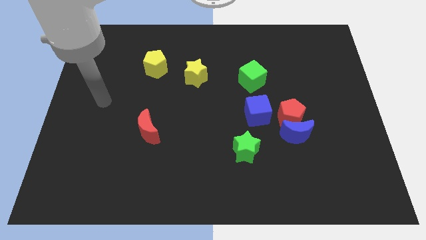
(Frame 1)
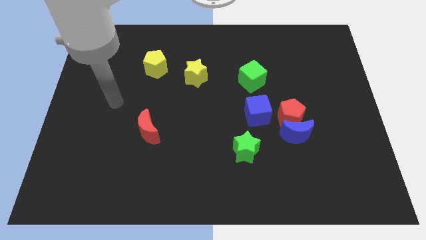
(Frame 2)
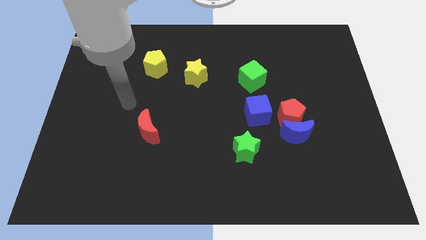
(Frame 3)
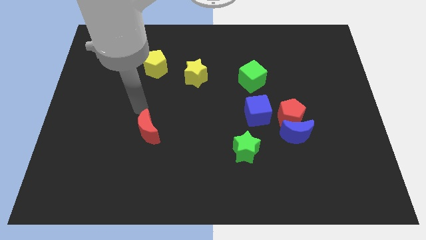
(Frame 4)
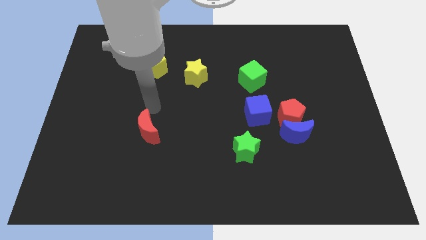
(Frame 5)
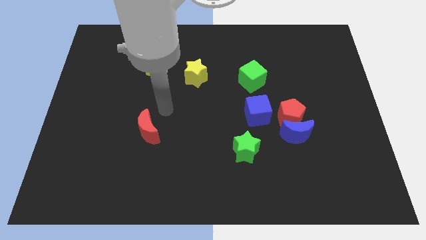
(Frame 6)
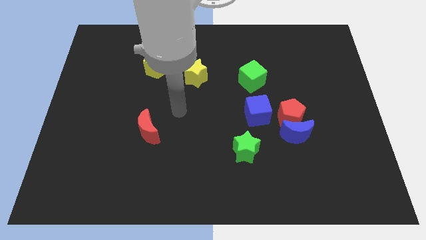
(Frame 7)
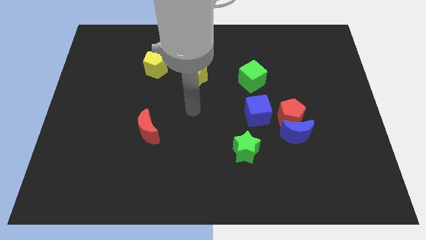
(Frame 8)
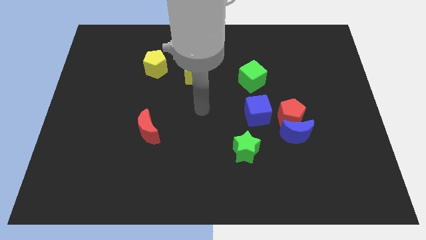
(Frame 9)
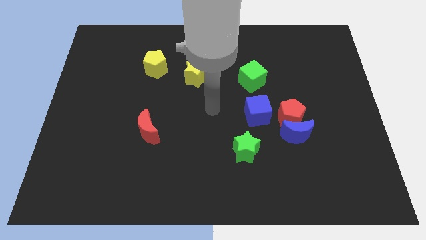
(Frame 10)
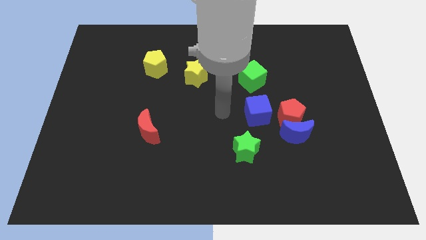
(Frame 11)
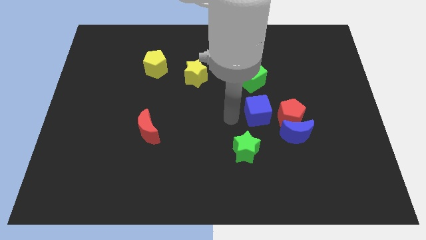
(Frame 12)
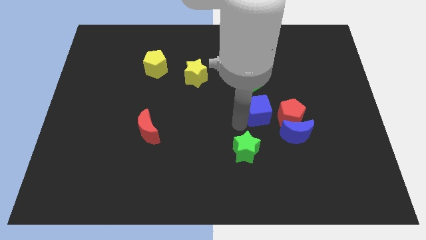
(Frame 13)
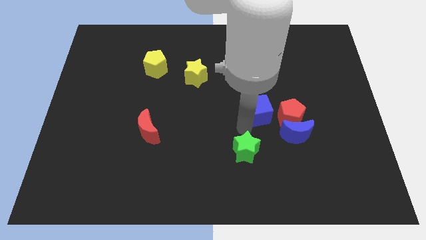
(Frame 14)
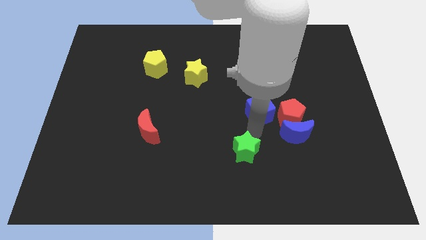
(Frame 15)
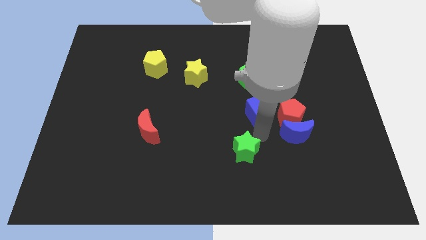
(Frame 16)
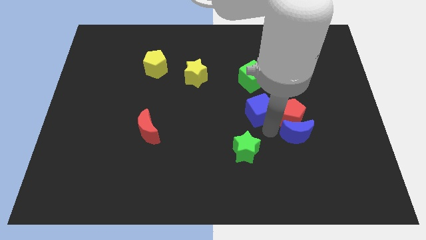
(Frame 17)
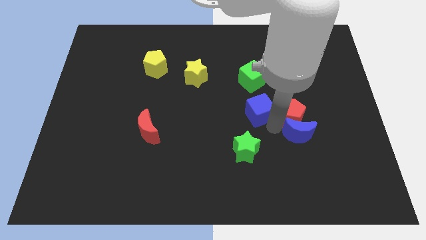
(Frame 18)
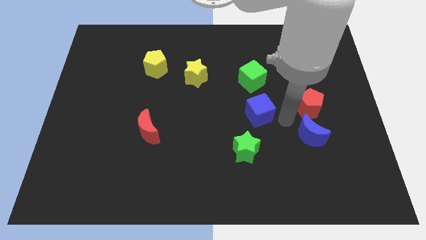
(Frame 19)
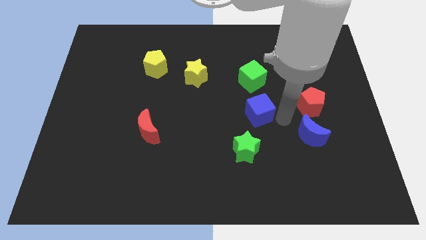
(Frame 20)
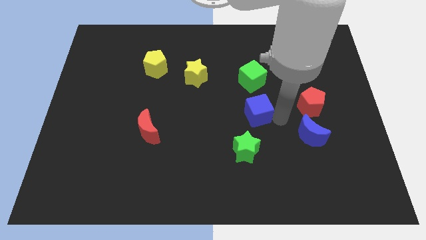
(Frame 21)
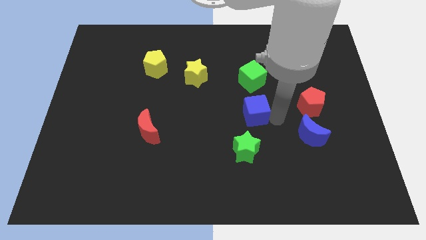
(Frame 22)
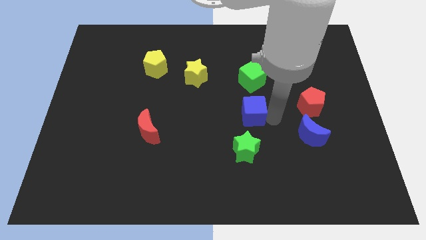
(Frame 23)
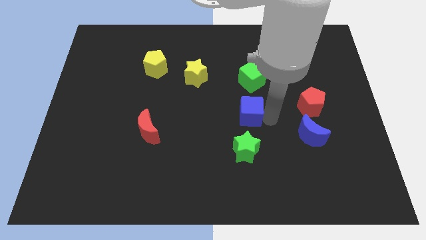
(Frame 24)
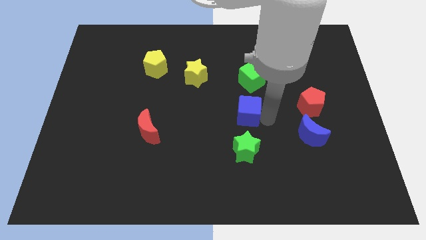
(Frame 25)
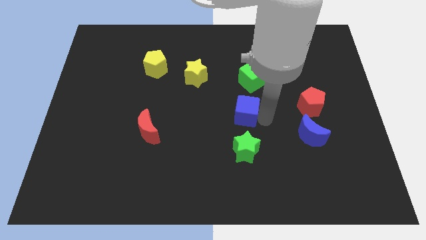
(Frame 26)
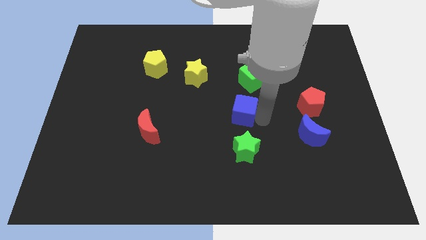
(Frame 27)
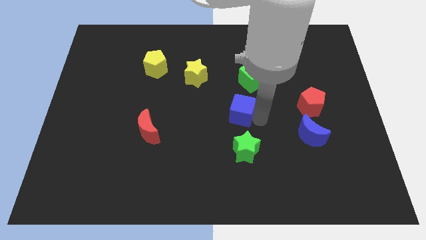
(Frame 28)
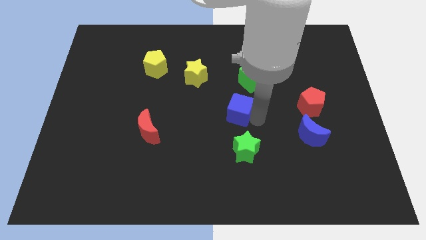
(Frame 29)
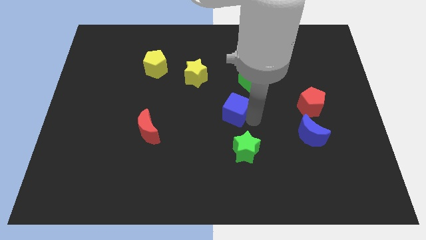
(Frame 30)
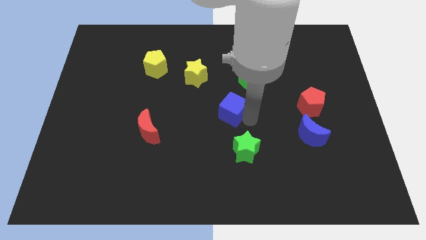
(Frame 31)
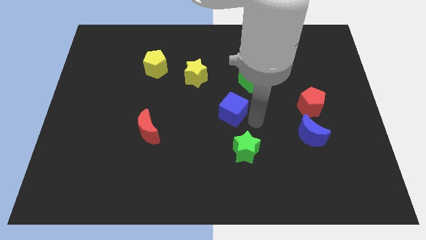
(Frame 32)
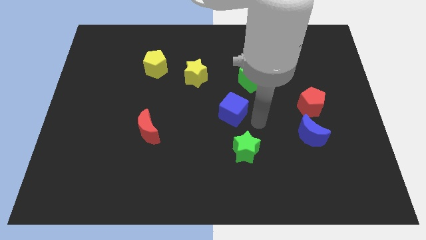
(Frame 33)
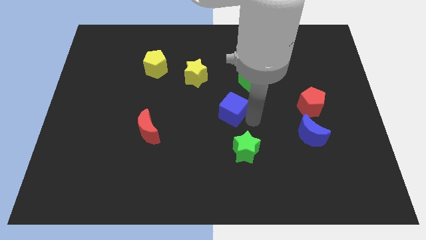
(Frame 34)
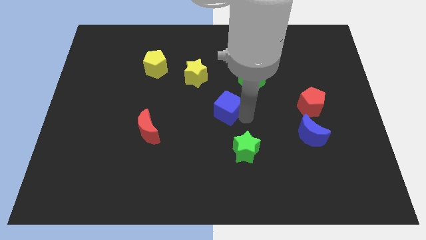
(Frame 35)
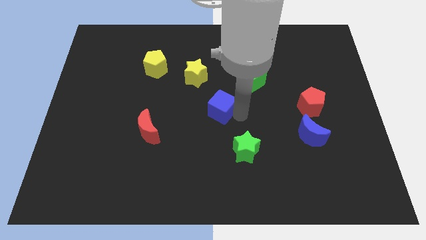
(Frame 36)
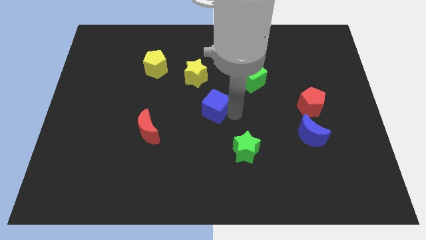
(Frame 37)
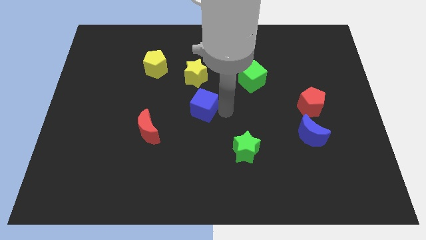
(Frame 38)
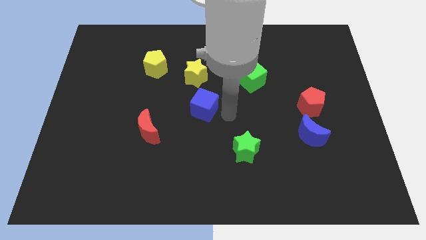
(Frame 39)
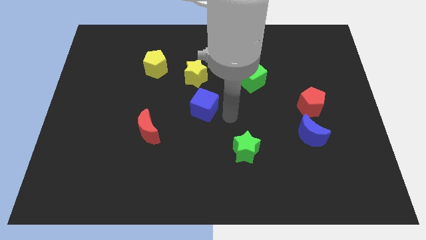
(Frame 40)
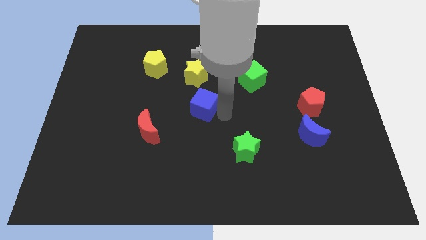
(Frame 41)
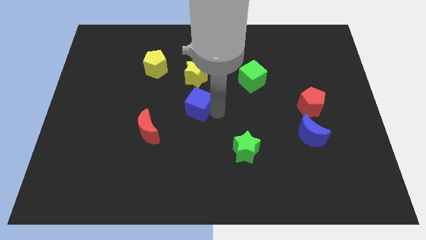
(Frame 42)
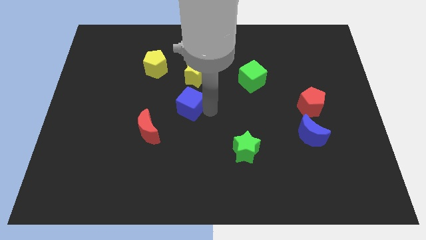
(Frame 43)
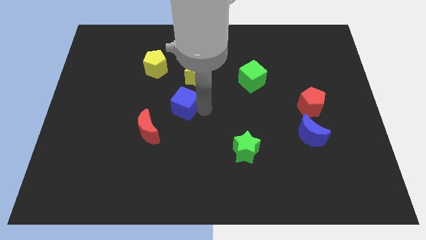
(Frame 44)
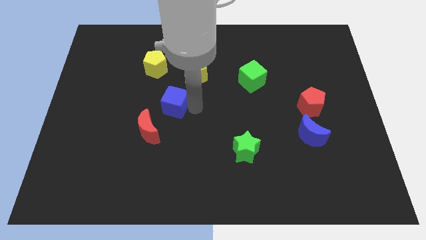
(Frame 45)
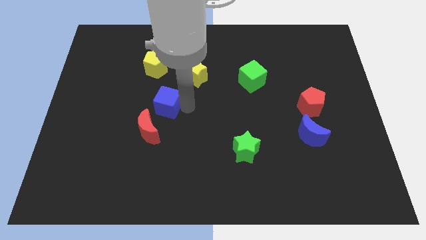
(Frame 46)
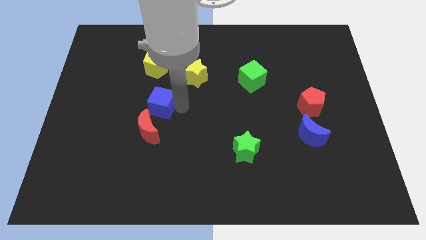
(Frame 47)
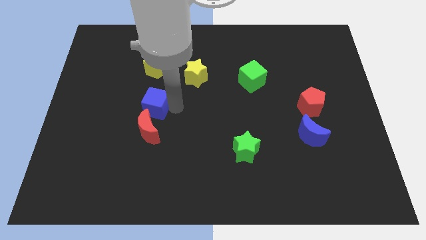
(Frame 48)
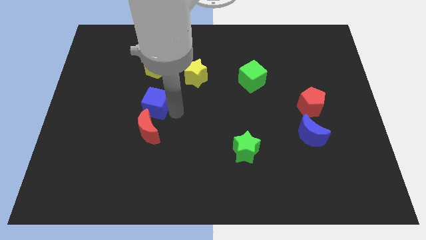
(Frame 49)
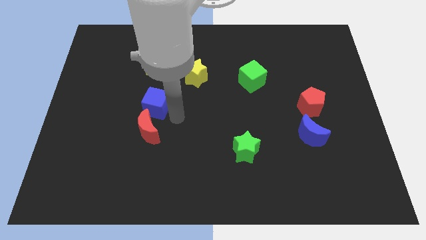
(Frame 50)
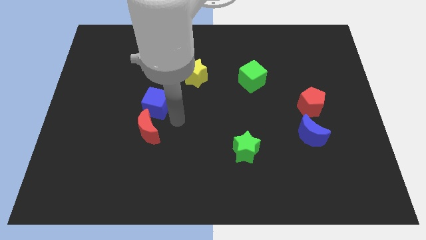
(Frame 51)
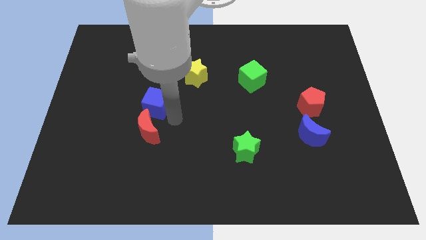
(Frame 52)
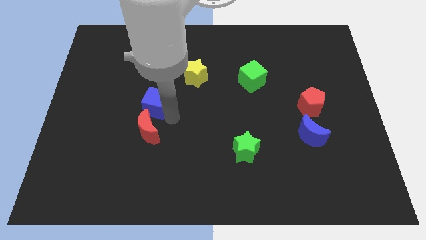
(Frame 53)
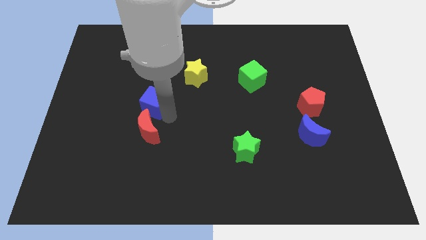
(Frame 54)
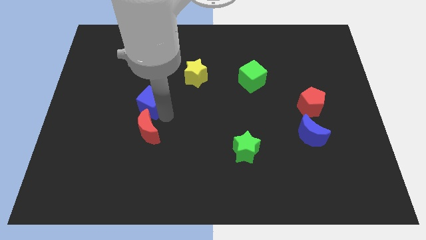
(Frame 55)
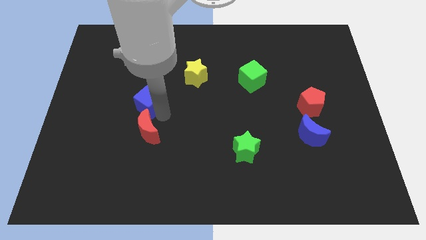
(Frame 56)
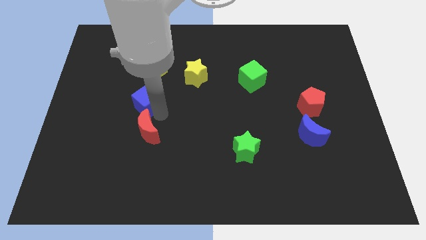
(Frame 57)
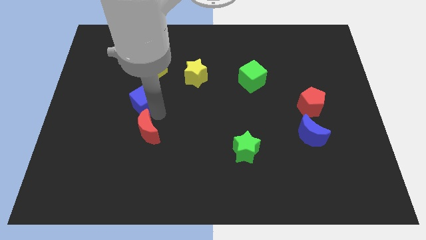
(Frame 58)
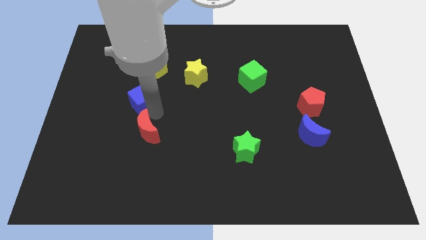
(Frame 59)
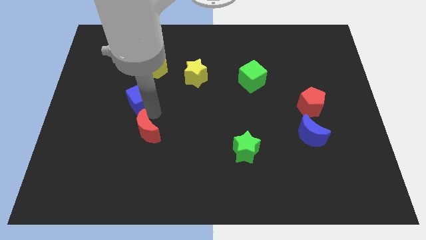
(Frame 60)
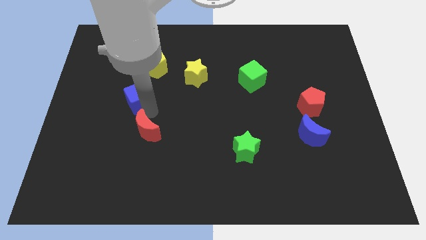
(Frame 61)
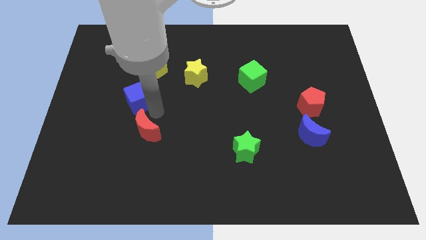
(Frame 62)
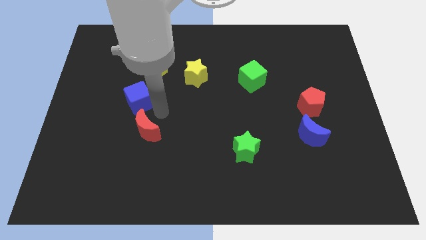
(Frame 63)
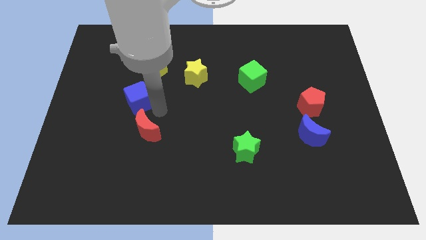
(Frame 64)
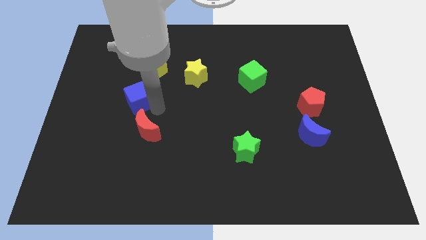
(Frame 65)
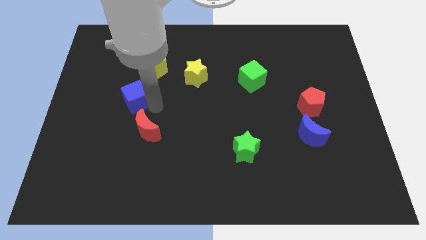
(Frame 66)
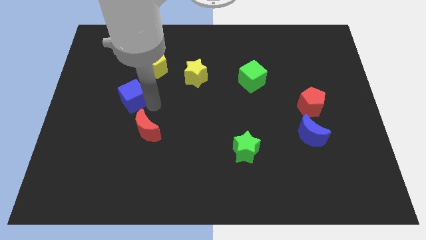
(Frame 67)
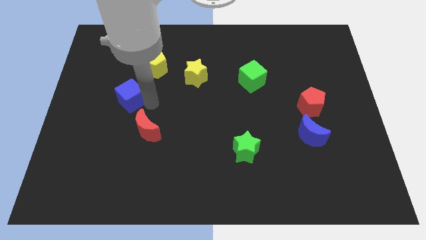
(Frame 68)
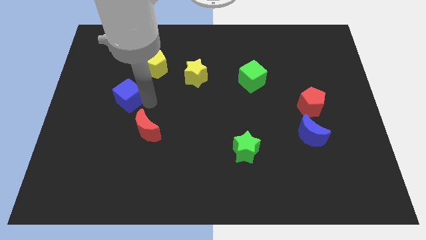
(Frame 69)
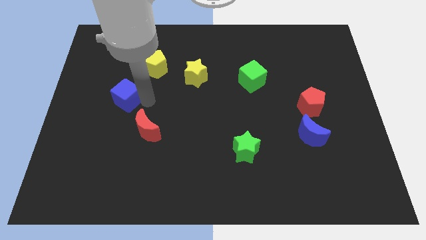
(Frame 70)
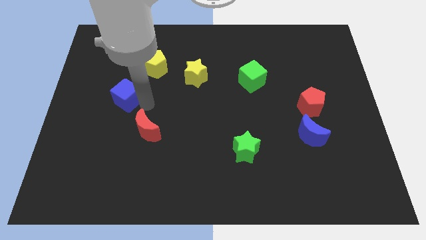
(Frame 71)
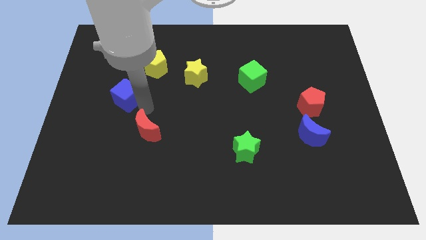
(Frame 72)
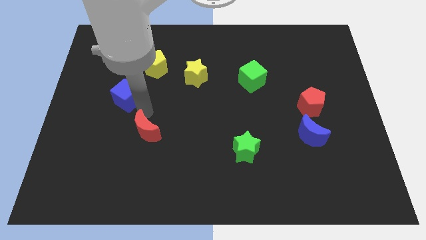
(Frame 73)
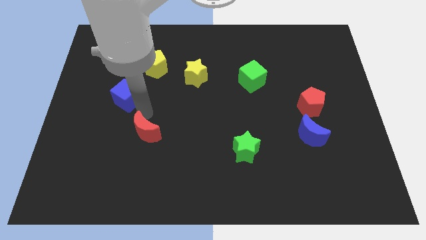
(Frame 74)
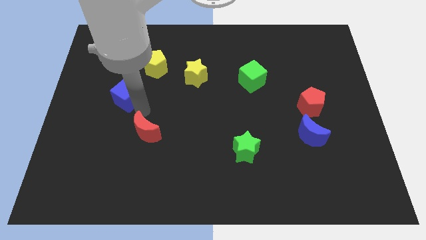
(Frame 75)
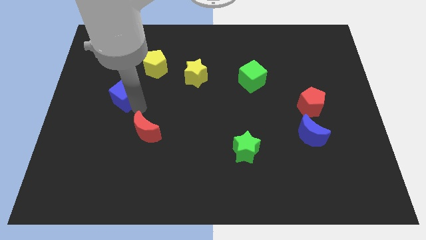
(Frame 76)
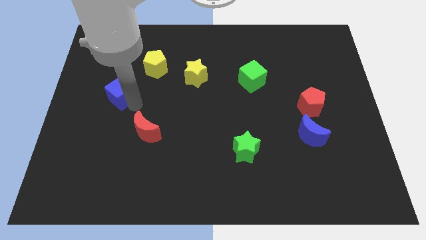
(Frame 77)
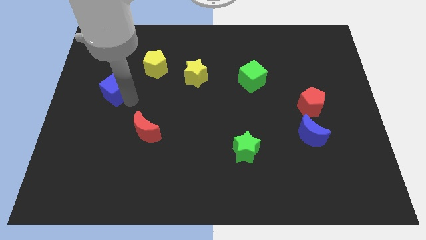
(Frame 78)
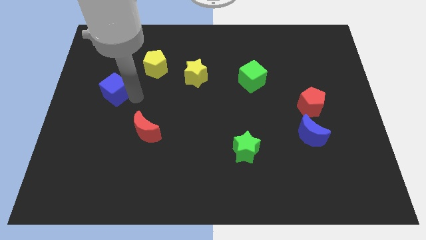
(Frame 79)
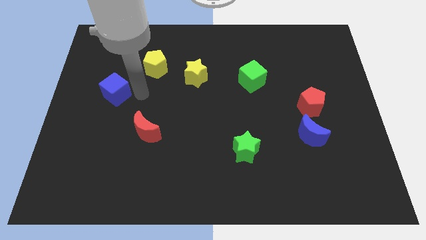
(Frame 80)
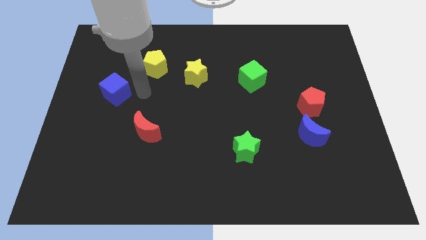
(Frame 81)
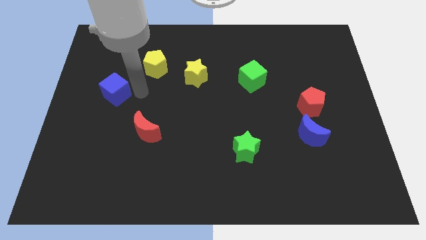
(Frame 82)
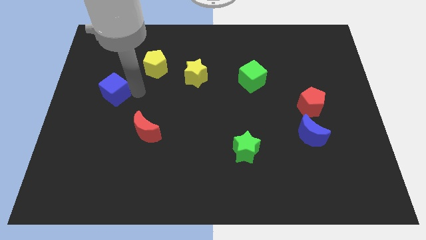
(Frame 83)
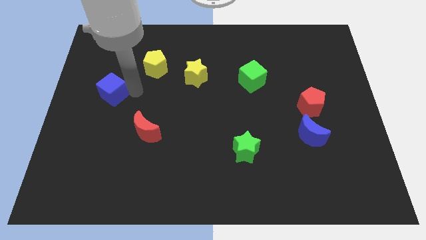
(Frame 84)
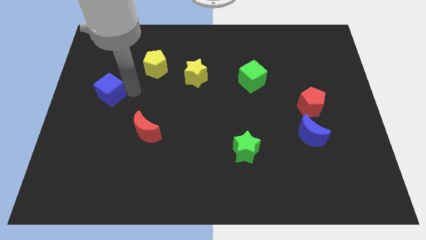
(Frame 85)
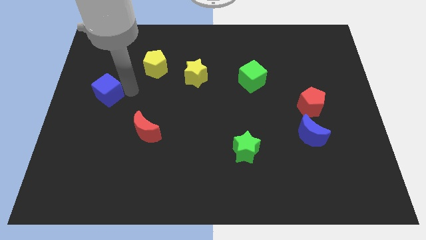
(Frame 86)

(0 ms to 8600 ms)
move the blue cube to the center left
